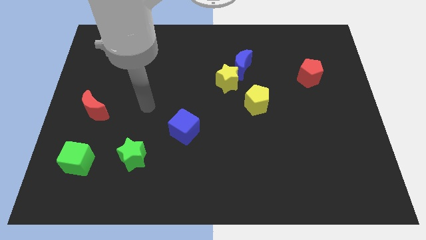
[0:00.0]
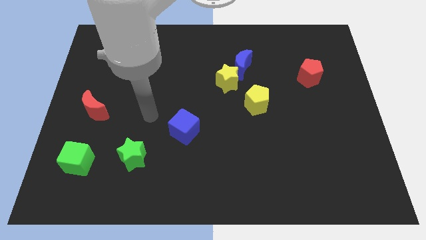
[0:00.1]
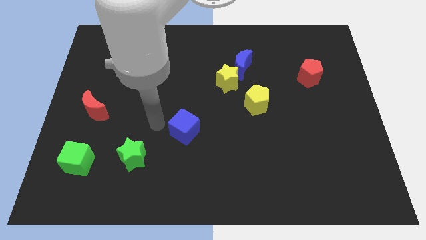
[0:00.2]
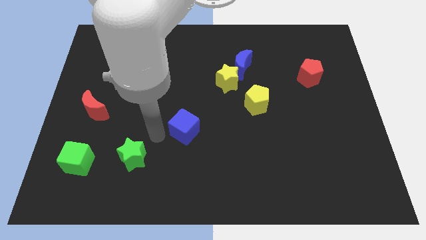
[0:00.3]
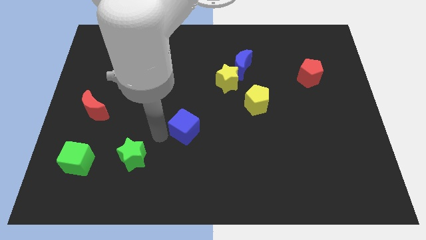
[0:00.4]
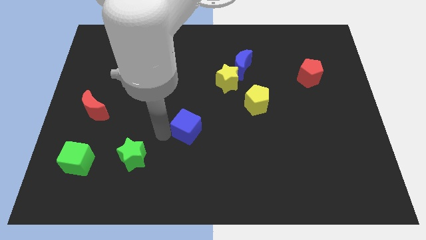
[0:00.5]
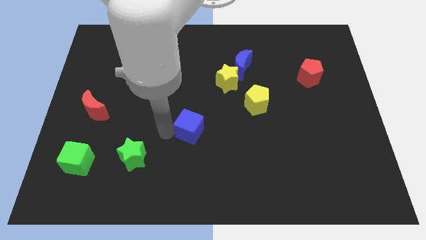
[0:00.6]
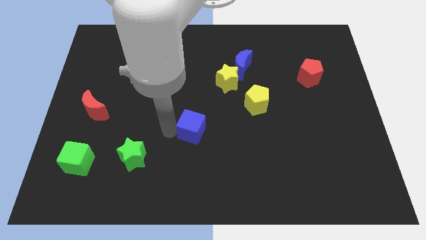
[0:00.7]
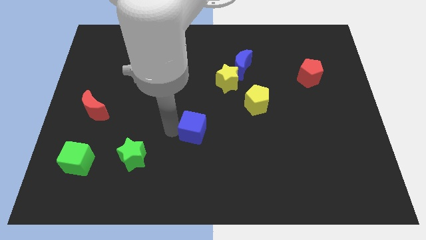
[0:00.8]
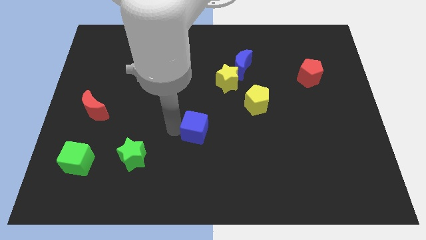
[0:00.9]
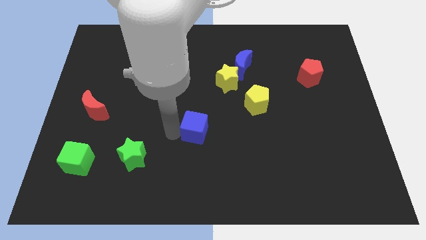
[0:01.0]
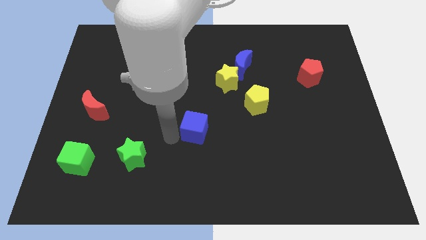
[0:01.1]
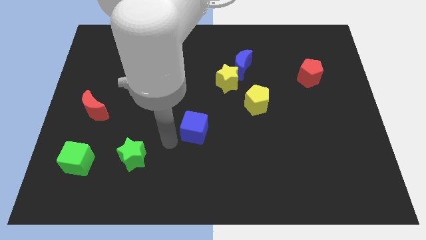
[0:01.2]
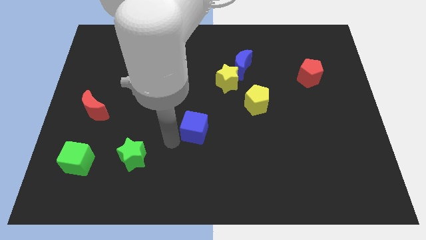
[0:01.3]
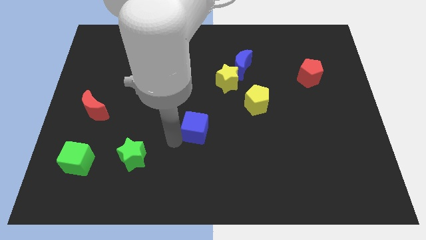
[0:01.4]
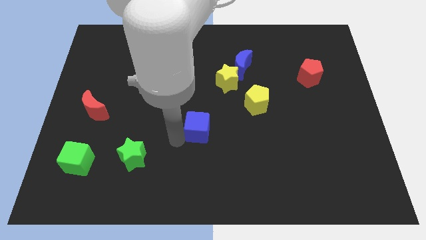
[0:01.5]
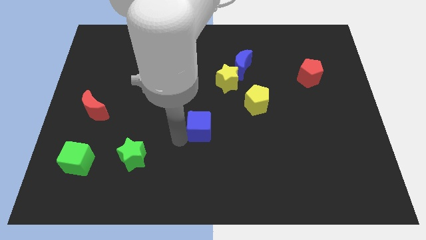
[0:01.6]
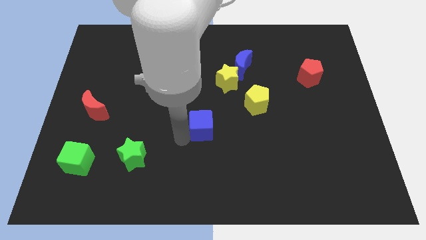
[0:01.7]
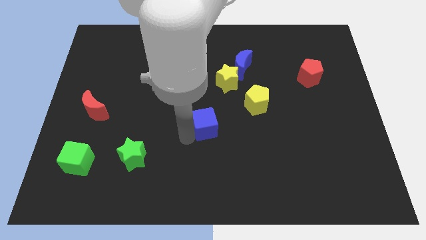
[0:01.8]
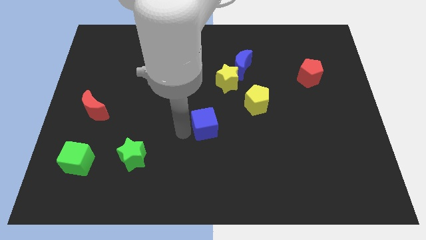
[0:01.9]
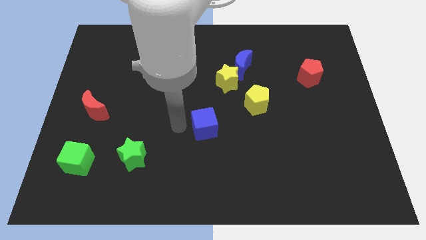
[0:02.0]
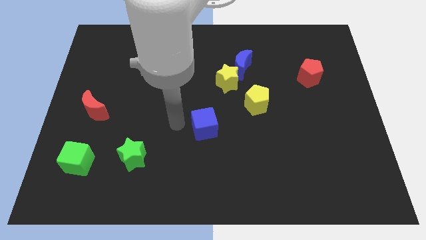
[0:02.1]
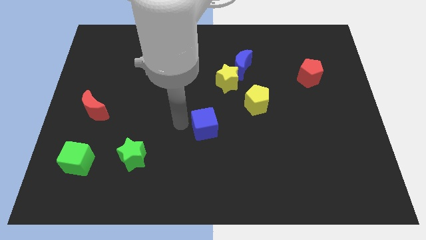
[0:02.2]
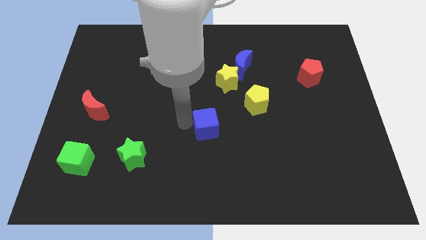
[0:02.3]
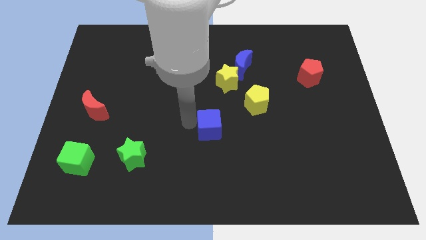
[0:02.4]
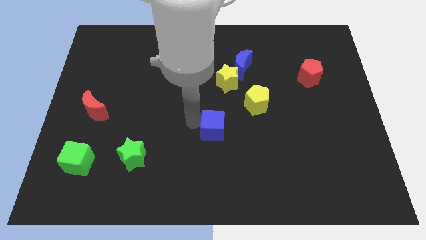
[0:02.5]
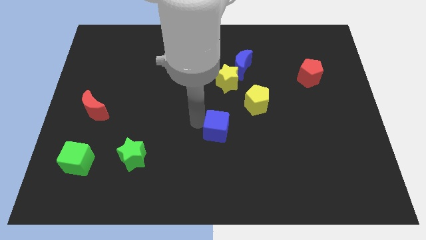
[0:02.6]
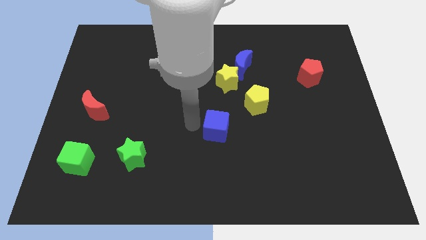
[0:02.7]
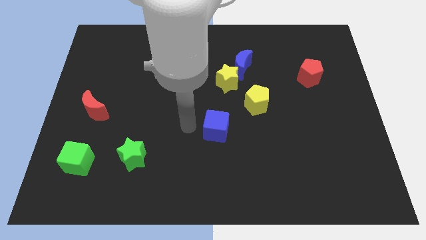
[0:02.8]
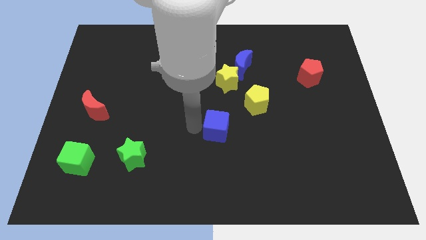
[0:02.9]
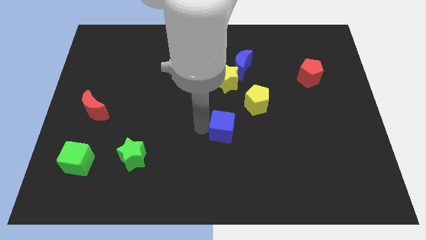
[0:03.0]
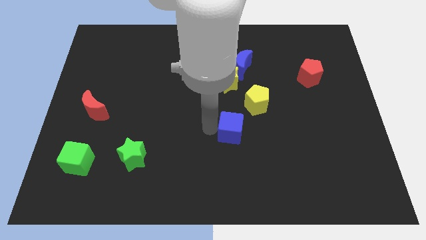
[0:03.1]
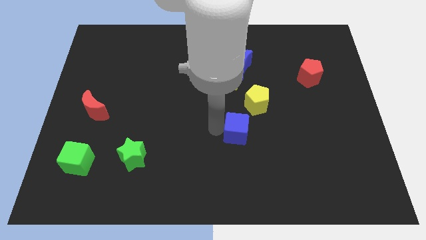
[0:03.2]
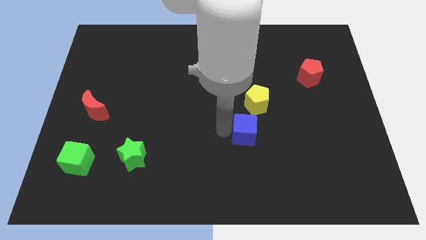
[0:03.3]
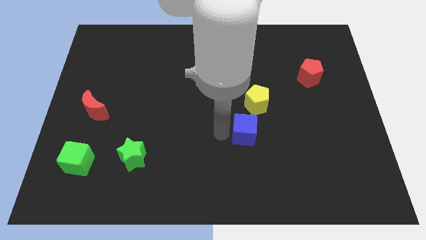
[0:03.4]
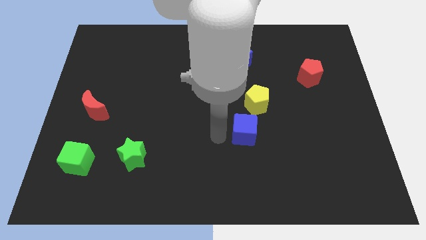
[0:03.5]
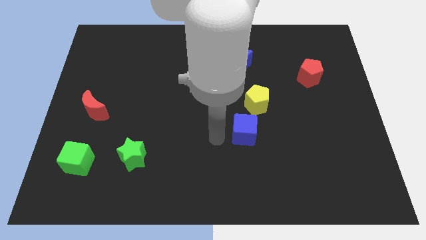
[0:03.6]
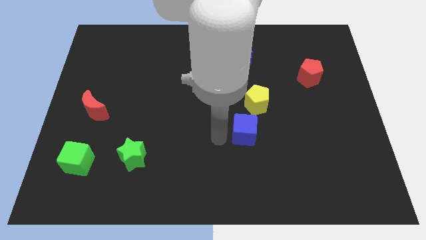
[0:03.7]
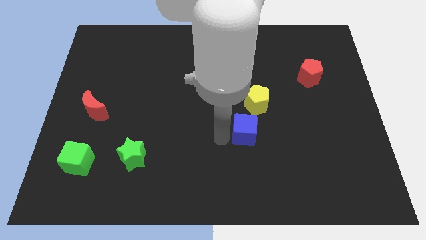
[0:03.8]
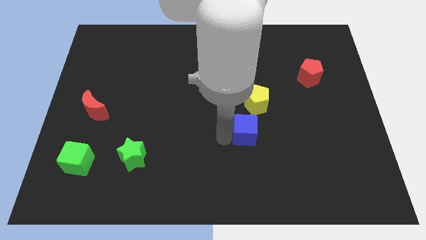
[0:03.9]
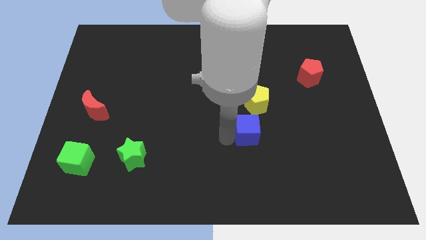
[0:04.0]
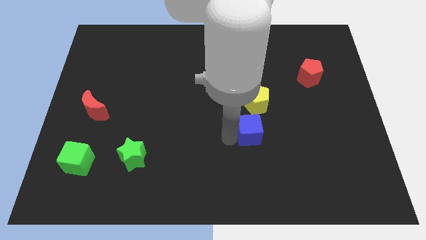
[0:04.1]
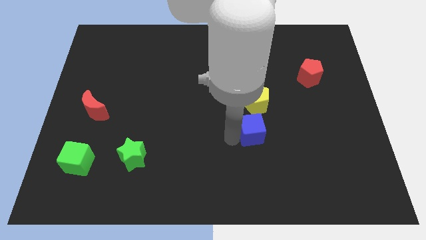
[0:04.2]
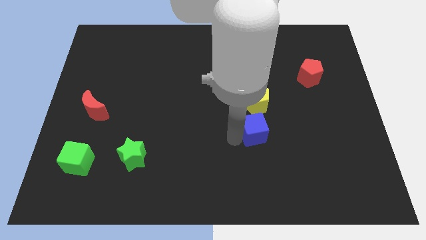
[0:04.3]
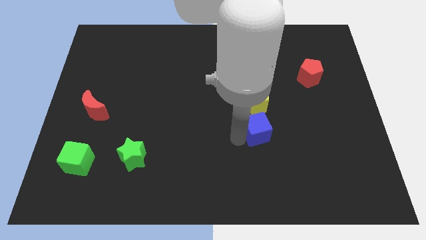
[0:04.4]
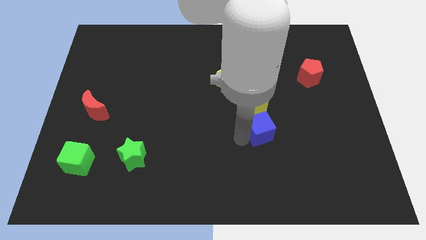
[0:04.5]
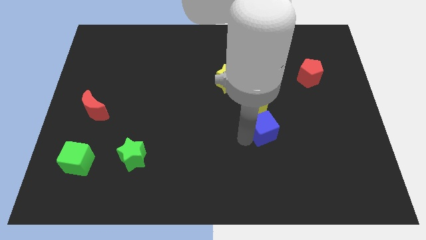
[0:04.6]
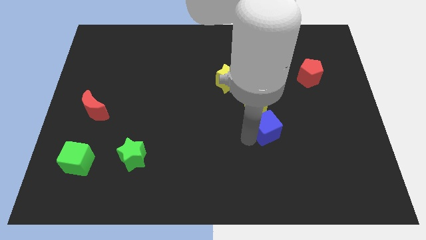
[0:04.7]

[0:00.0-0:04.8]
push the blue cube to the bottom right side of the yellow pentagon

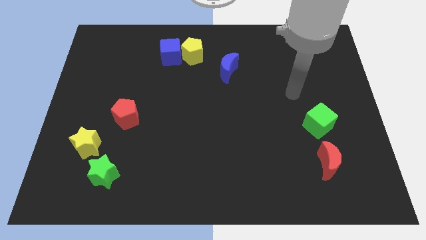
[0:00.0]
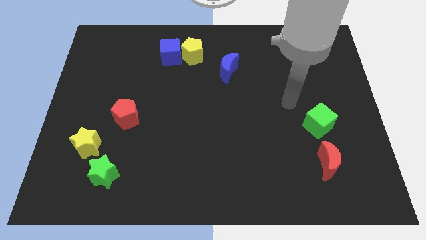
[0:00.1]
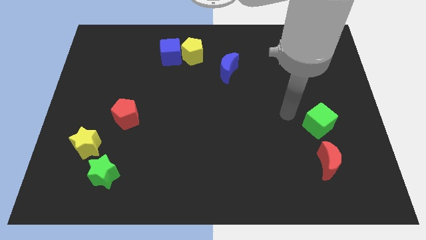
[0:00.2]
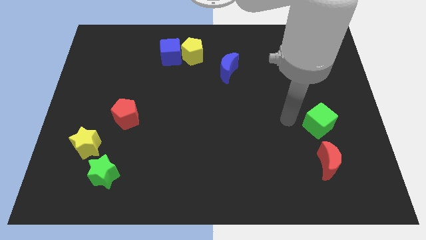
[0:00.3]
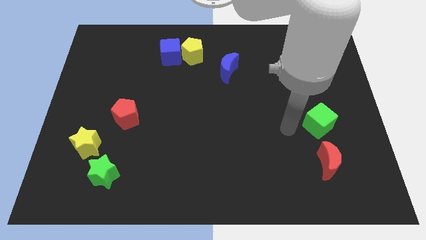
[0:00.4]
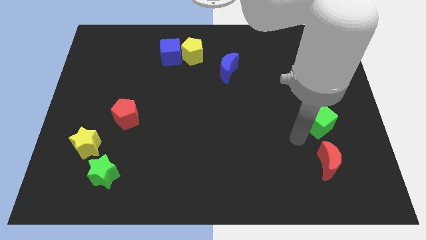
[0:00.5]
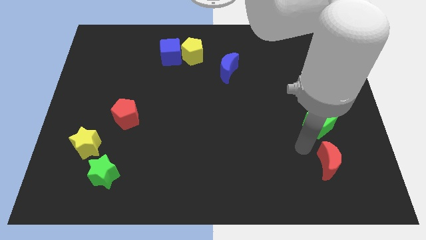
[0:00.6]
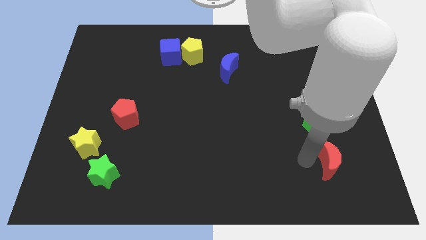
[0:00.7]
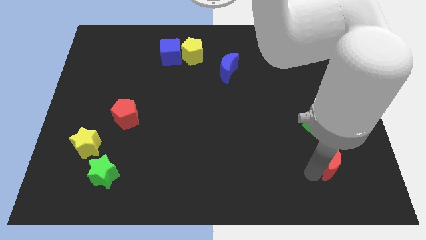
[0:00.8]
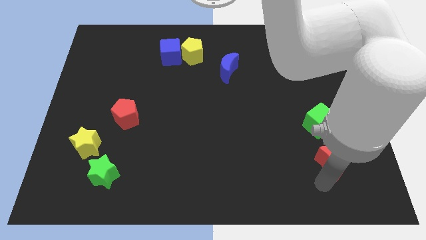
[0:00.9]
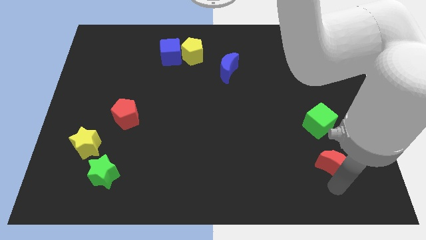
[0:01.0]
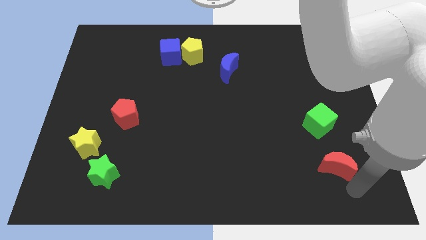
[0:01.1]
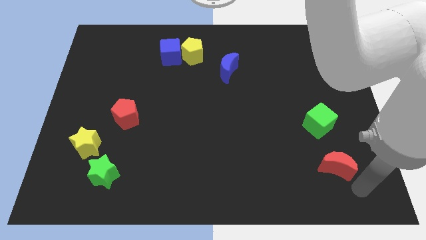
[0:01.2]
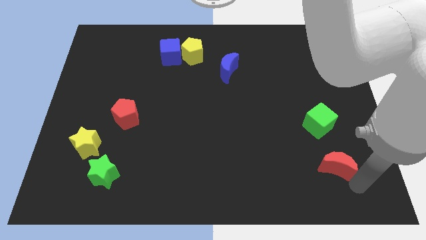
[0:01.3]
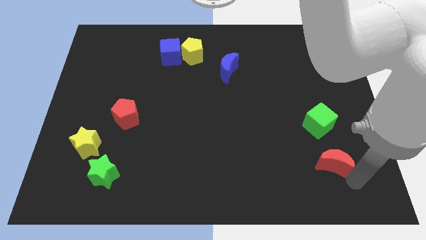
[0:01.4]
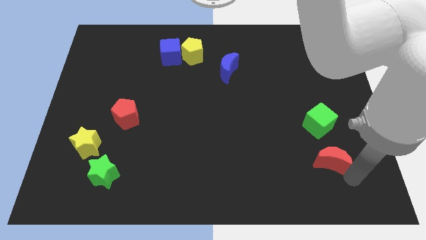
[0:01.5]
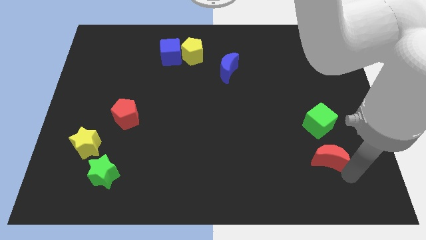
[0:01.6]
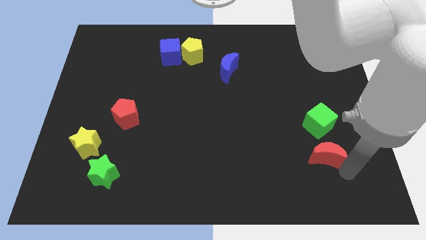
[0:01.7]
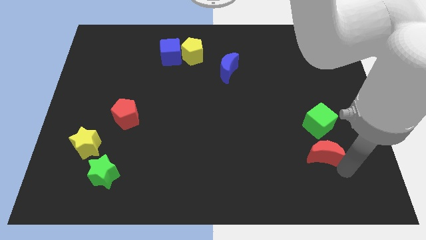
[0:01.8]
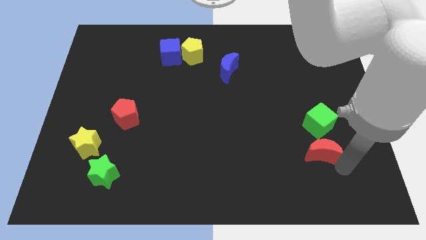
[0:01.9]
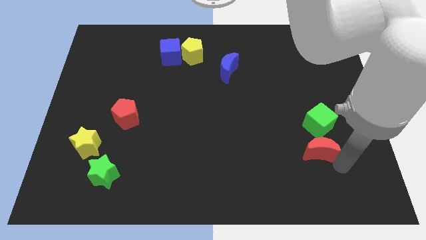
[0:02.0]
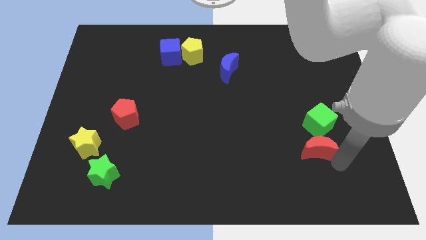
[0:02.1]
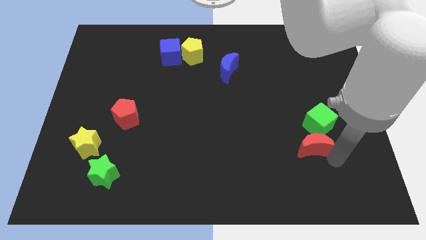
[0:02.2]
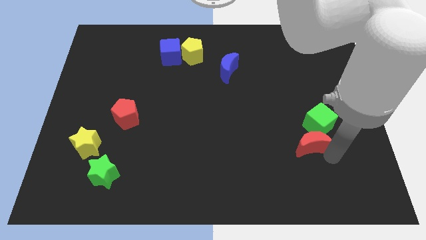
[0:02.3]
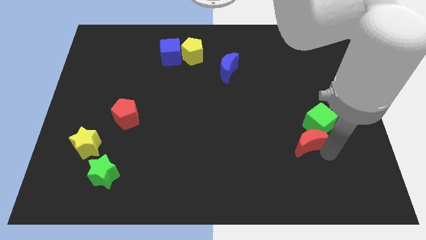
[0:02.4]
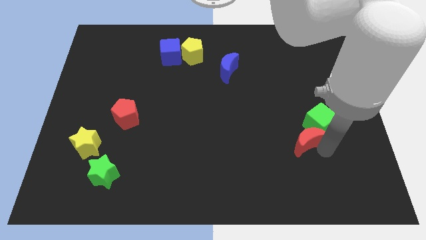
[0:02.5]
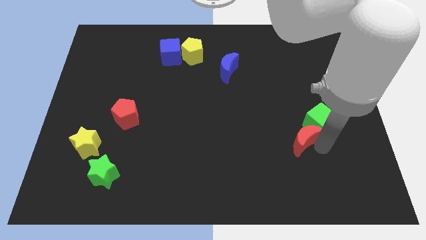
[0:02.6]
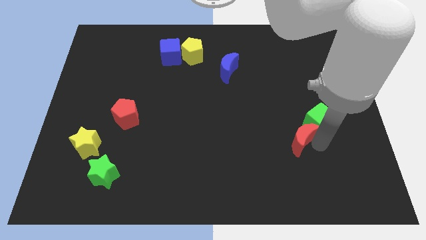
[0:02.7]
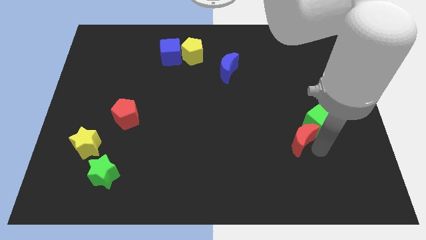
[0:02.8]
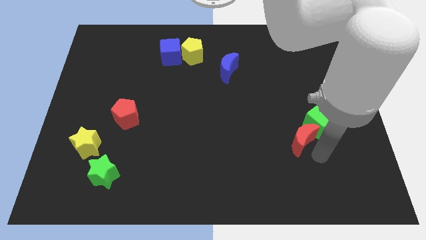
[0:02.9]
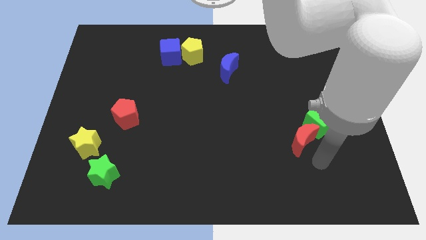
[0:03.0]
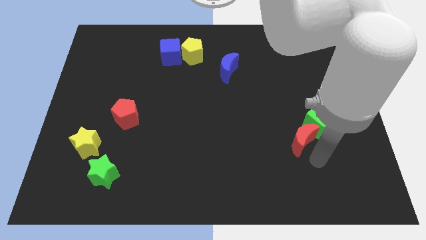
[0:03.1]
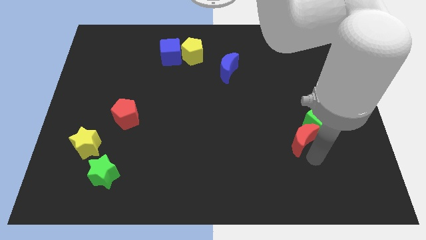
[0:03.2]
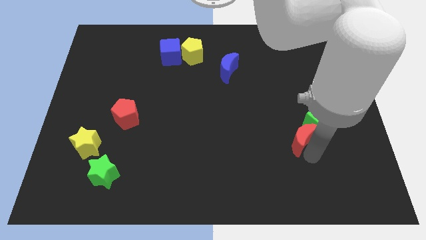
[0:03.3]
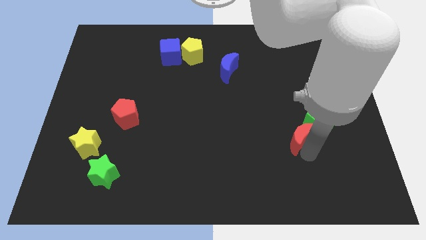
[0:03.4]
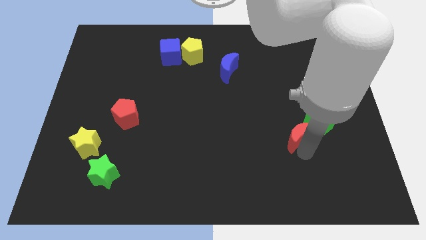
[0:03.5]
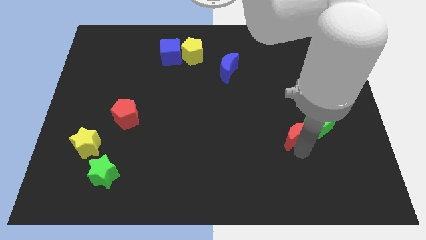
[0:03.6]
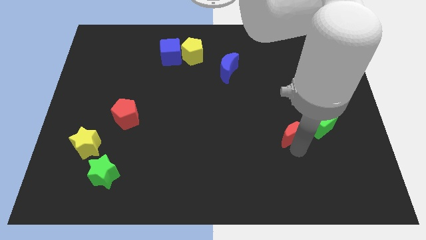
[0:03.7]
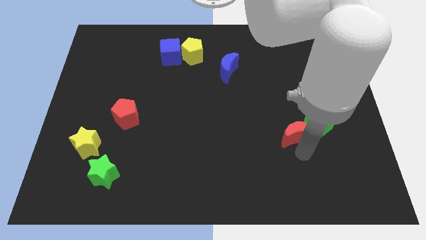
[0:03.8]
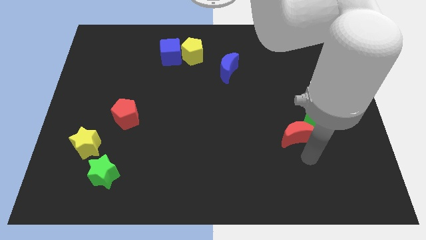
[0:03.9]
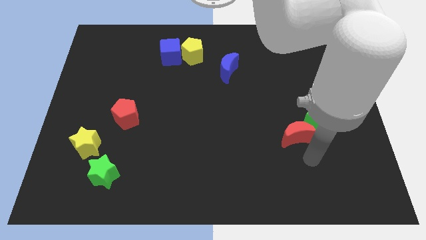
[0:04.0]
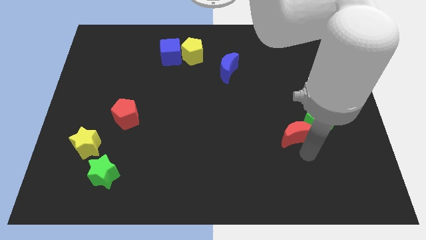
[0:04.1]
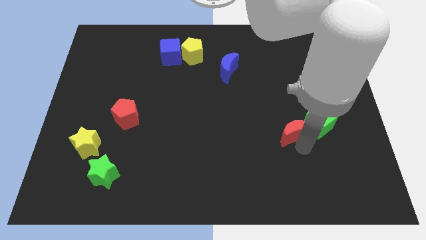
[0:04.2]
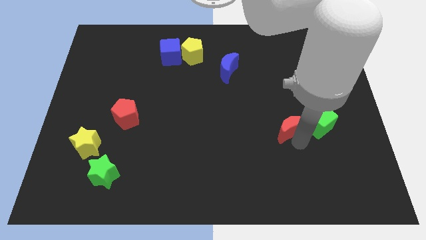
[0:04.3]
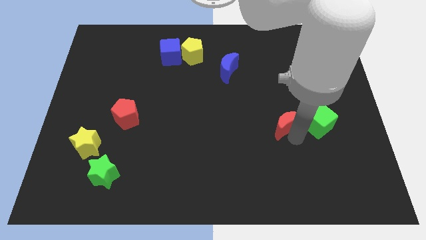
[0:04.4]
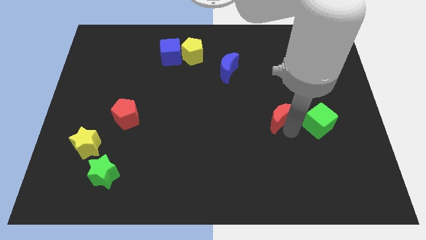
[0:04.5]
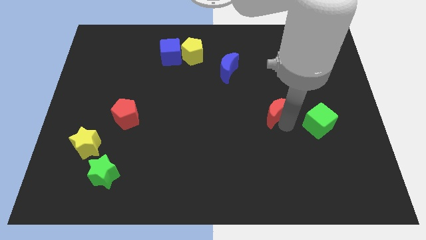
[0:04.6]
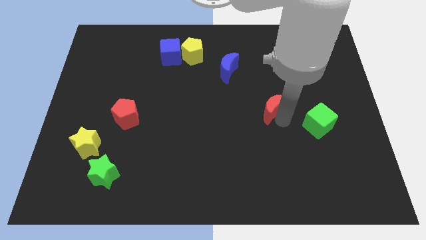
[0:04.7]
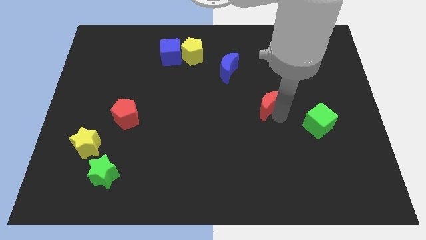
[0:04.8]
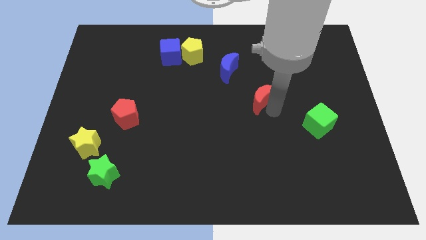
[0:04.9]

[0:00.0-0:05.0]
put the red moon diagonally down and to the right of the blue moon
